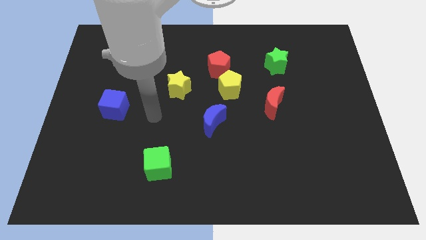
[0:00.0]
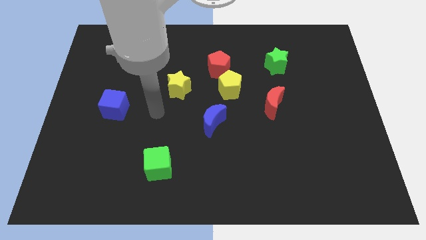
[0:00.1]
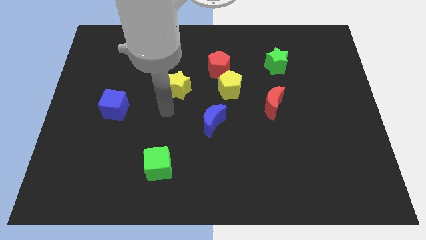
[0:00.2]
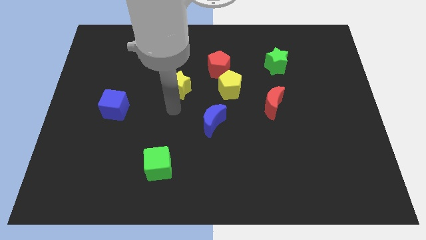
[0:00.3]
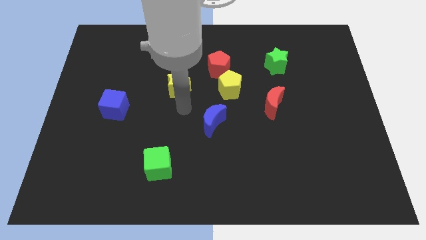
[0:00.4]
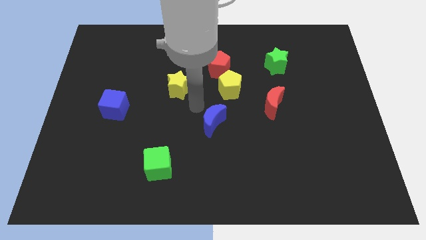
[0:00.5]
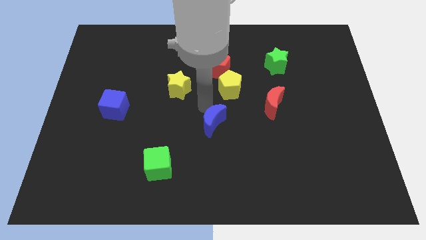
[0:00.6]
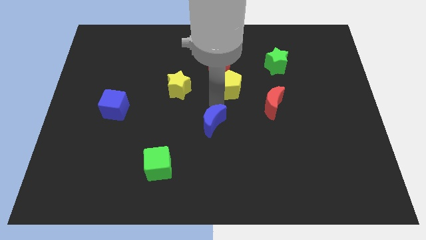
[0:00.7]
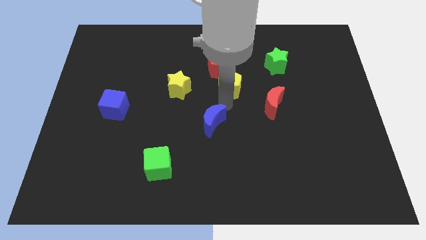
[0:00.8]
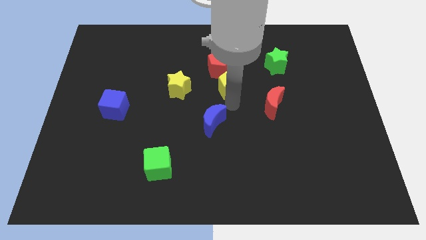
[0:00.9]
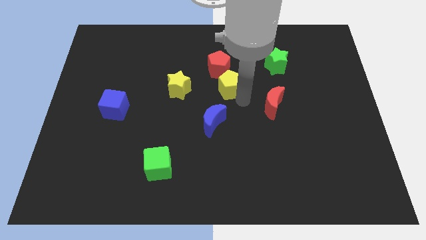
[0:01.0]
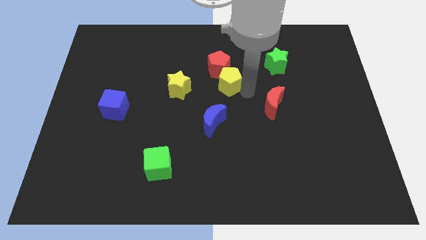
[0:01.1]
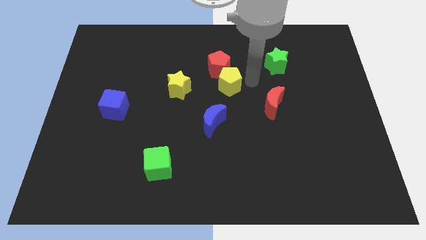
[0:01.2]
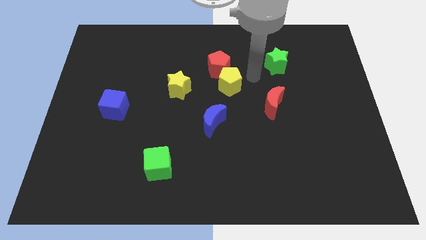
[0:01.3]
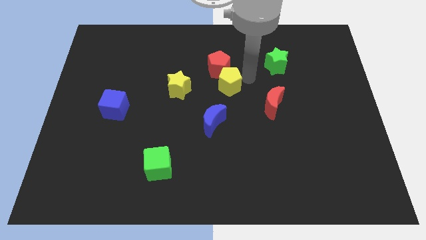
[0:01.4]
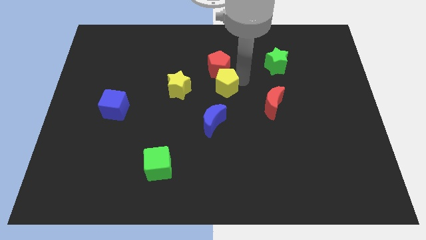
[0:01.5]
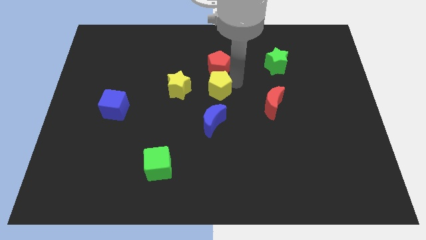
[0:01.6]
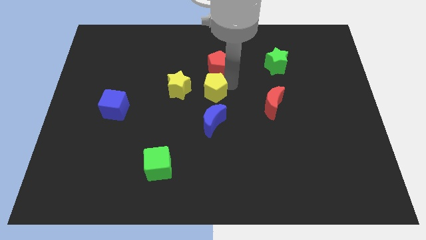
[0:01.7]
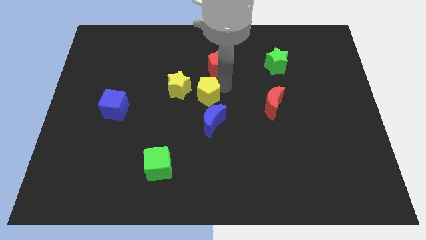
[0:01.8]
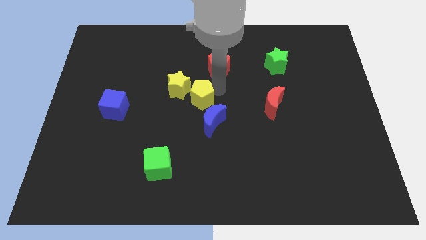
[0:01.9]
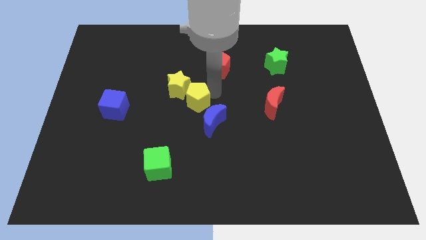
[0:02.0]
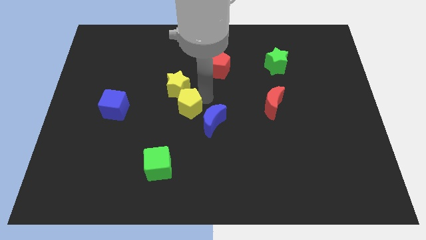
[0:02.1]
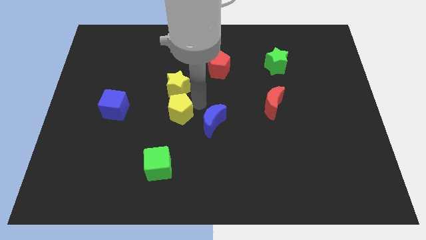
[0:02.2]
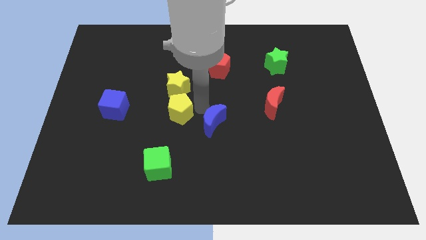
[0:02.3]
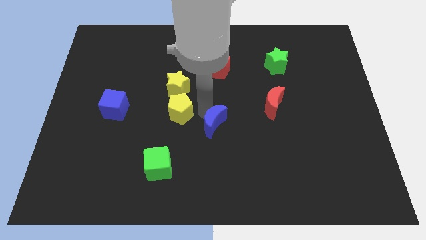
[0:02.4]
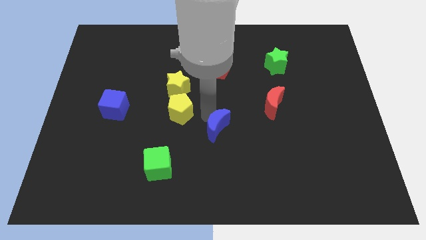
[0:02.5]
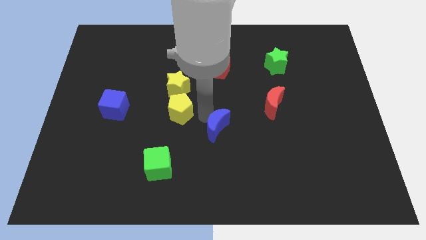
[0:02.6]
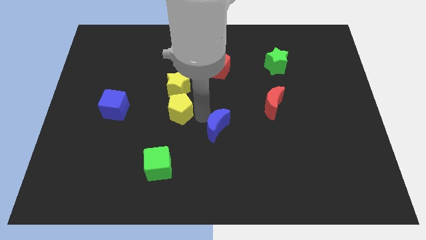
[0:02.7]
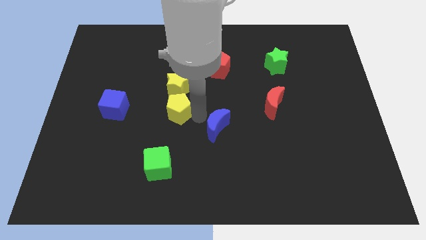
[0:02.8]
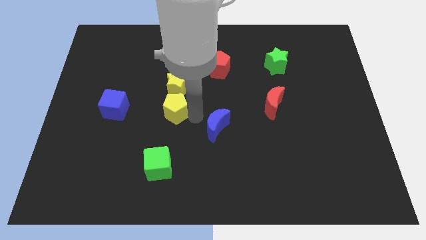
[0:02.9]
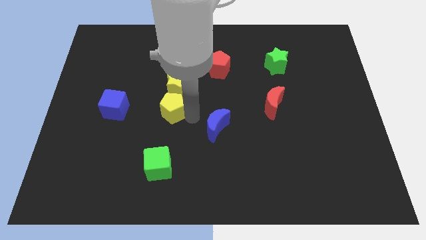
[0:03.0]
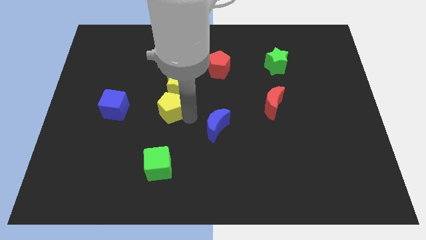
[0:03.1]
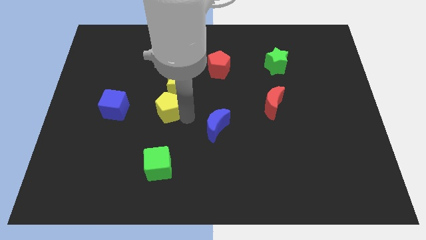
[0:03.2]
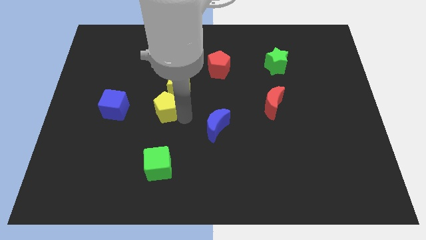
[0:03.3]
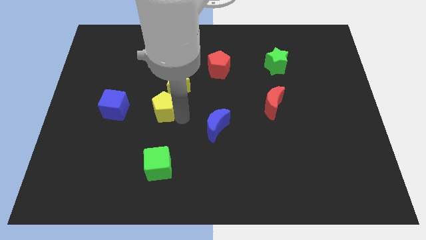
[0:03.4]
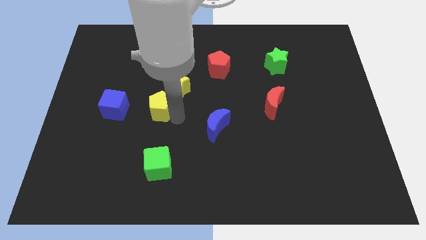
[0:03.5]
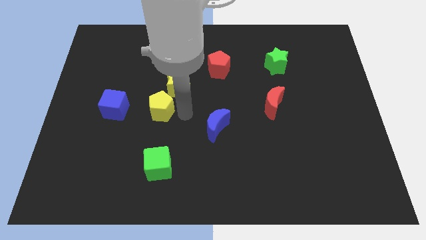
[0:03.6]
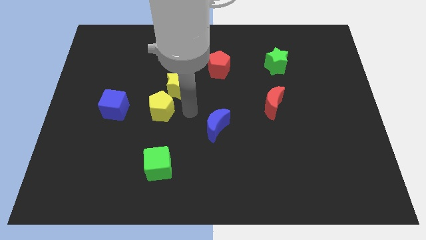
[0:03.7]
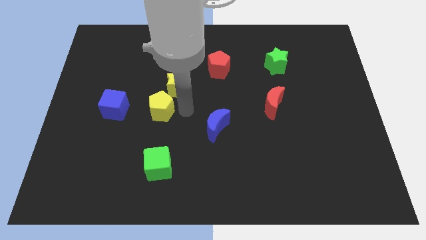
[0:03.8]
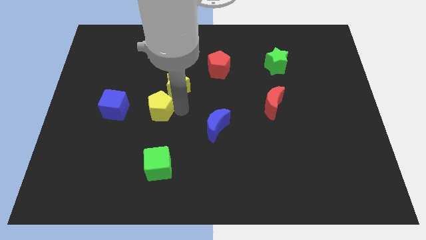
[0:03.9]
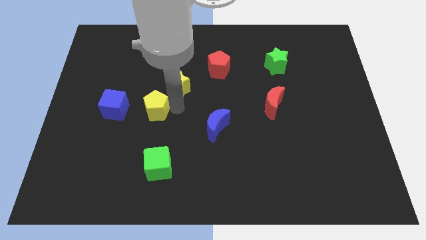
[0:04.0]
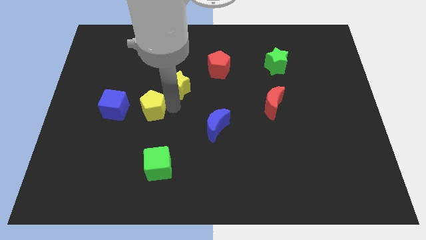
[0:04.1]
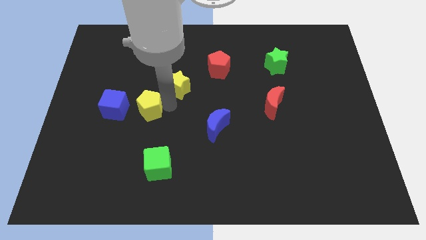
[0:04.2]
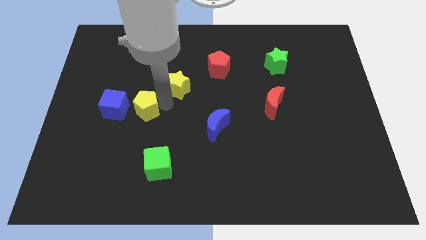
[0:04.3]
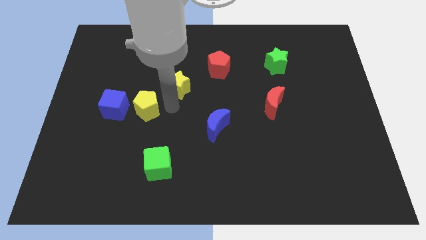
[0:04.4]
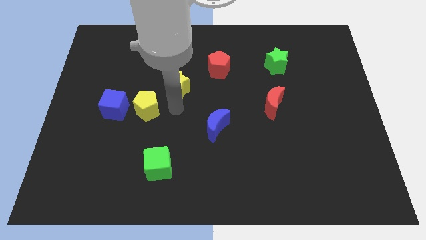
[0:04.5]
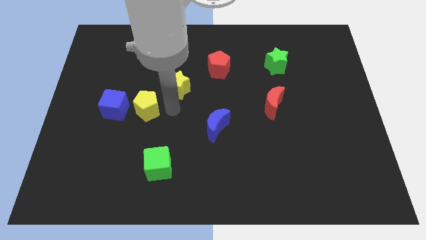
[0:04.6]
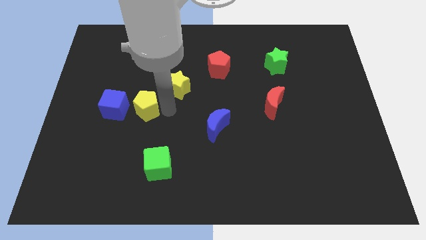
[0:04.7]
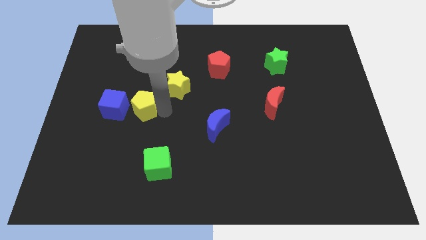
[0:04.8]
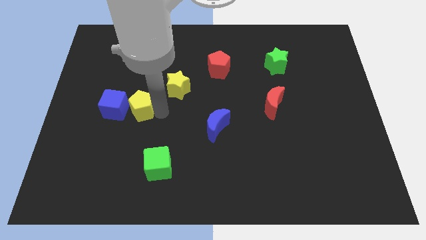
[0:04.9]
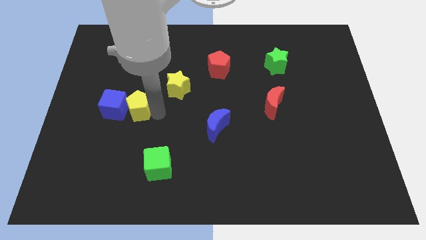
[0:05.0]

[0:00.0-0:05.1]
put the yellow pentagon next to the blue cube

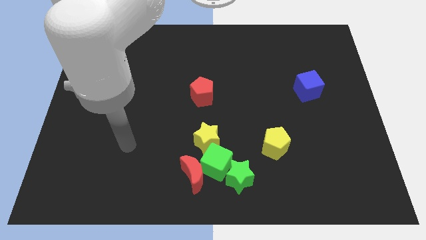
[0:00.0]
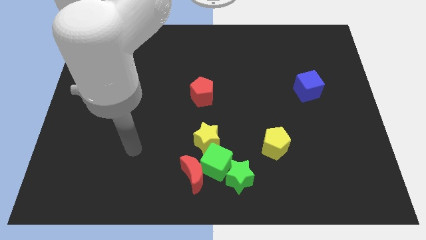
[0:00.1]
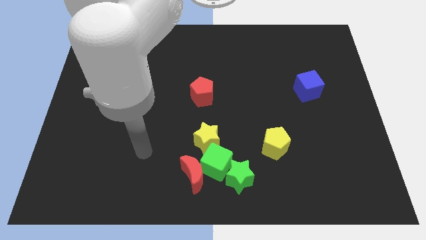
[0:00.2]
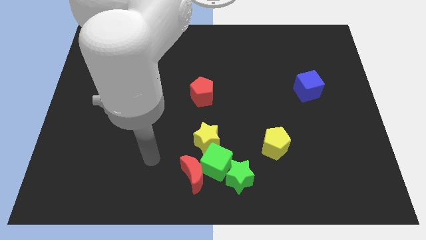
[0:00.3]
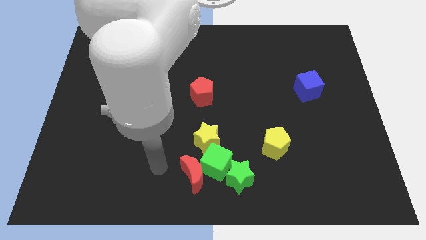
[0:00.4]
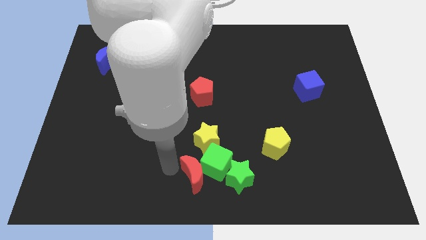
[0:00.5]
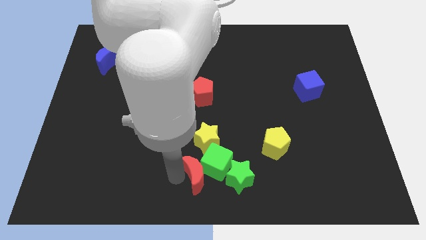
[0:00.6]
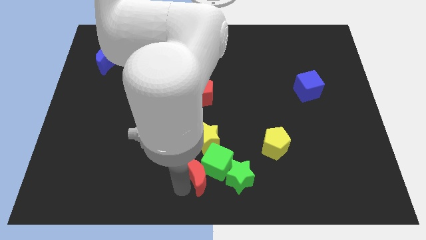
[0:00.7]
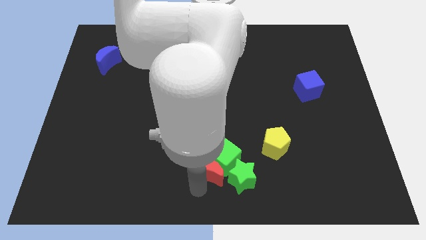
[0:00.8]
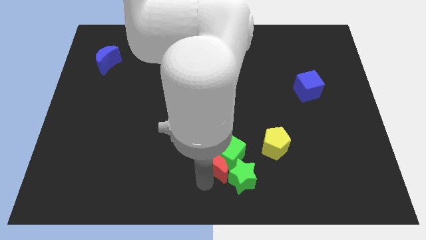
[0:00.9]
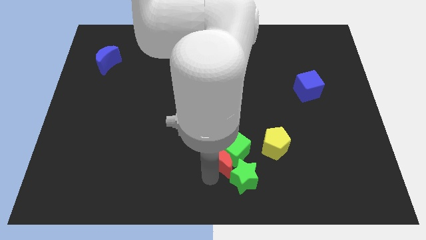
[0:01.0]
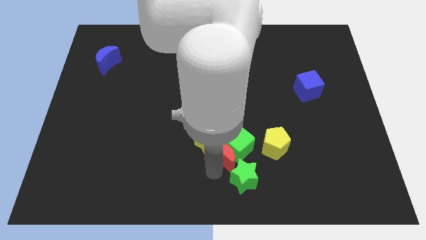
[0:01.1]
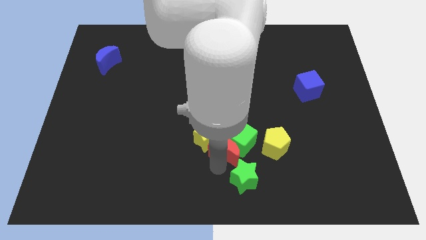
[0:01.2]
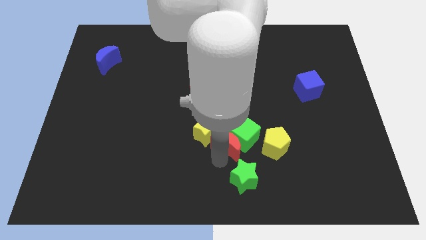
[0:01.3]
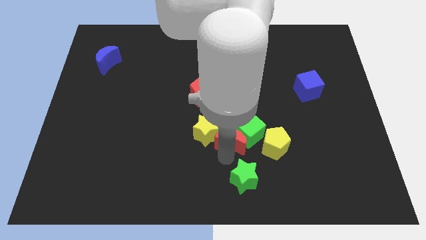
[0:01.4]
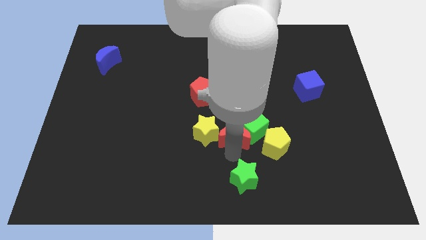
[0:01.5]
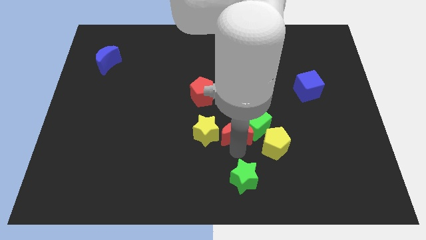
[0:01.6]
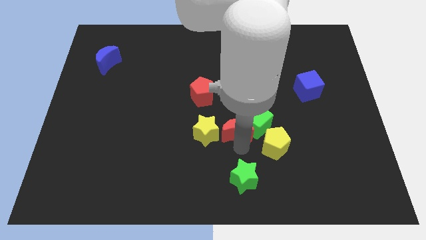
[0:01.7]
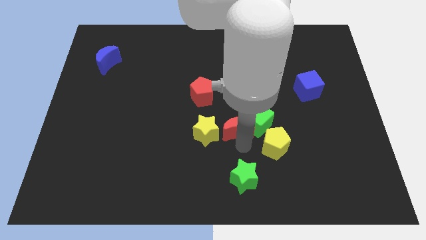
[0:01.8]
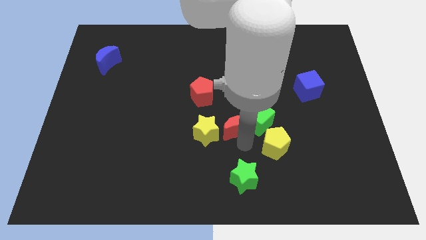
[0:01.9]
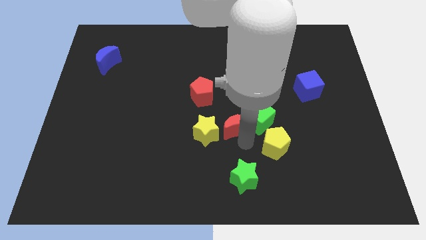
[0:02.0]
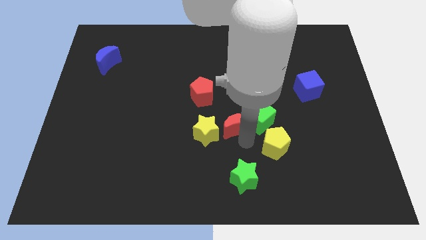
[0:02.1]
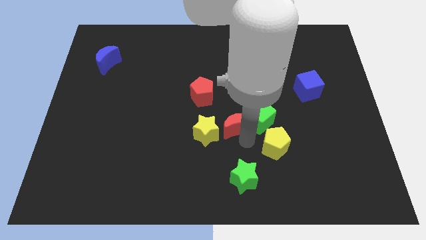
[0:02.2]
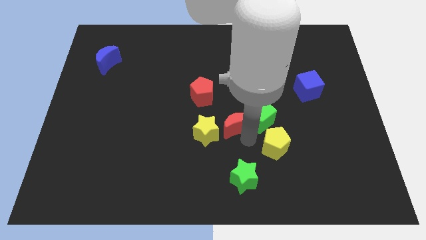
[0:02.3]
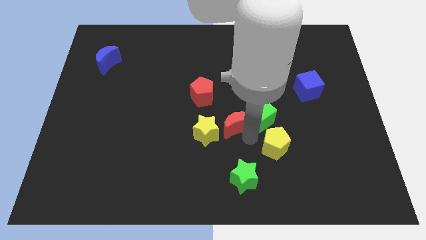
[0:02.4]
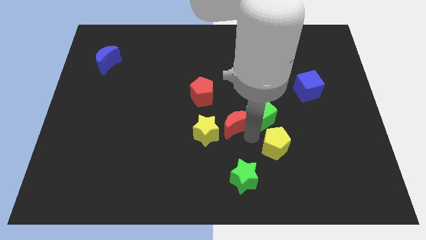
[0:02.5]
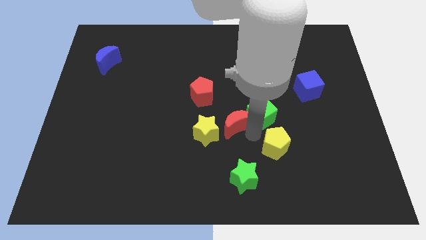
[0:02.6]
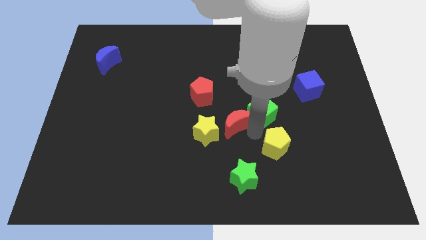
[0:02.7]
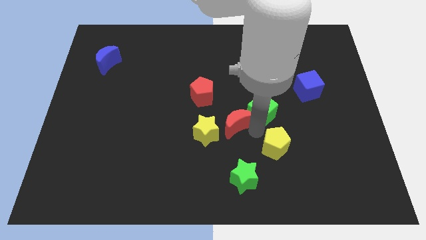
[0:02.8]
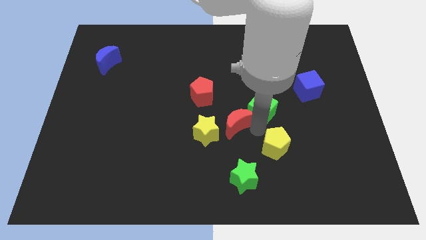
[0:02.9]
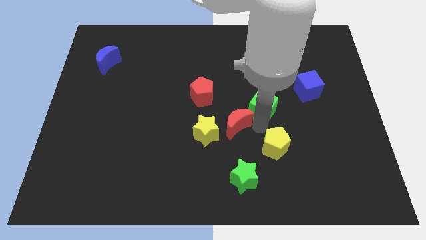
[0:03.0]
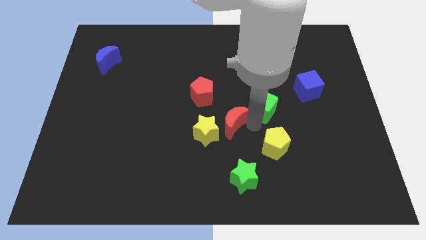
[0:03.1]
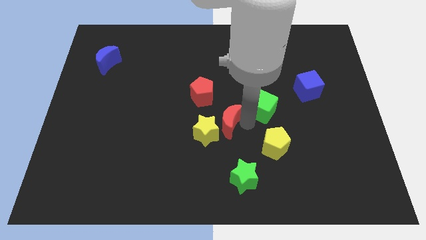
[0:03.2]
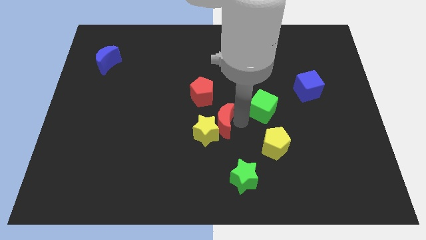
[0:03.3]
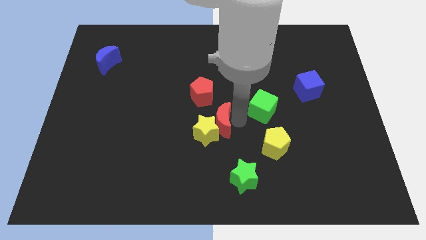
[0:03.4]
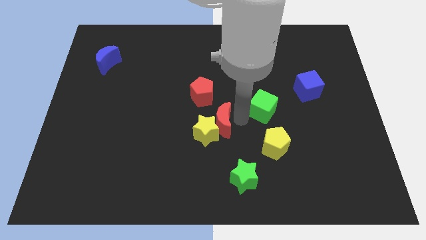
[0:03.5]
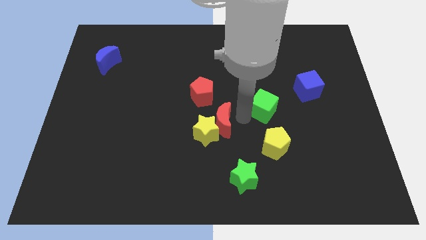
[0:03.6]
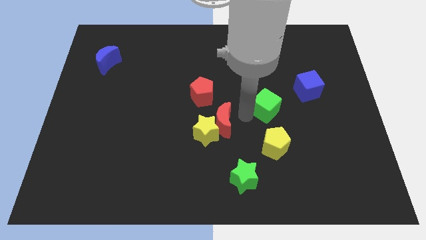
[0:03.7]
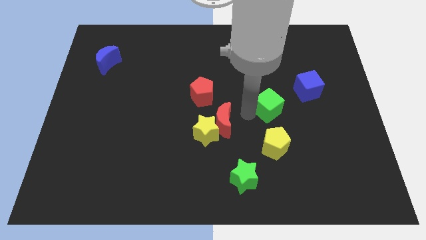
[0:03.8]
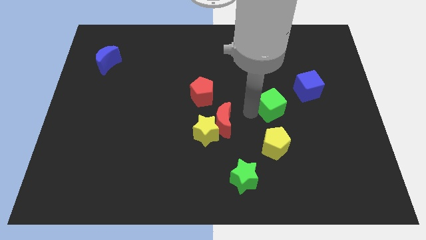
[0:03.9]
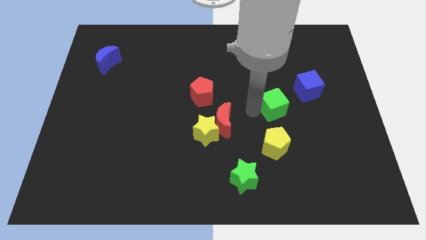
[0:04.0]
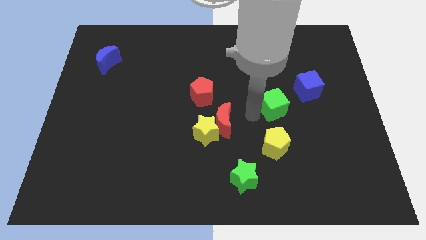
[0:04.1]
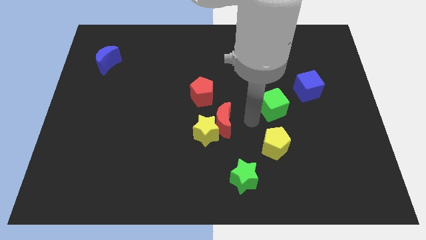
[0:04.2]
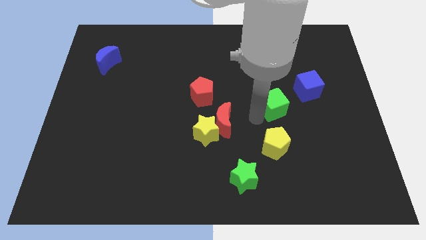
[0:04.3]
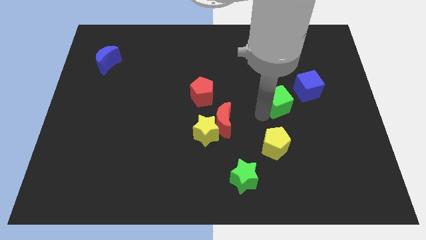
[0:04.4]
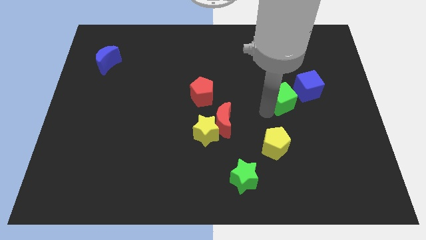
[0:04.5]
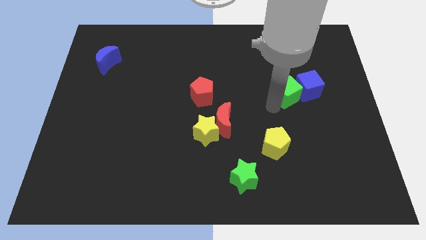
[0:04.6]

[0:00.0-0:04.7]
push the green cube to the blue cube
